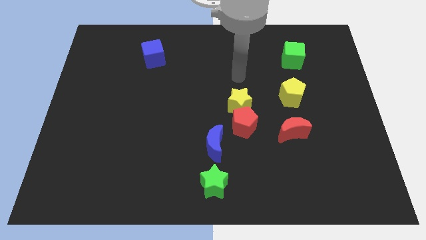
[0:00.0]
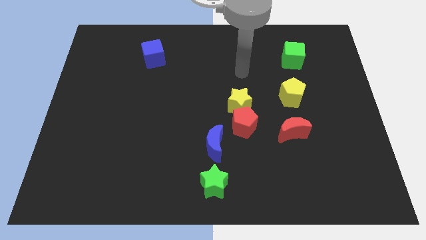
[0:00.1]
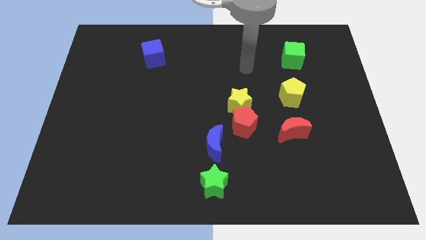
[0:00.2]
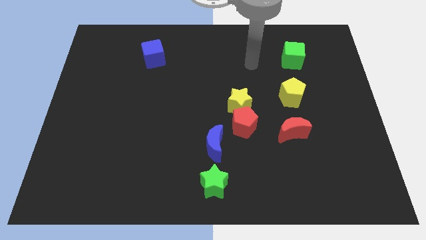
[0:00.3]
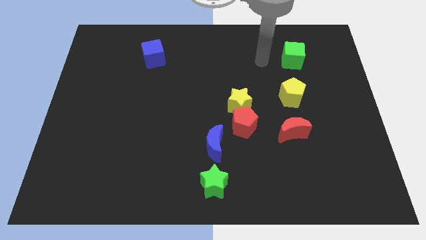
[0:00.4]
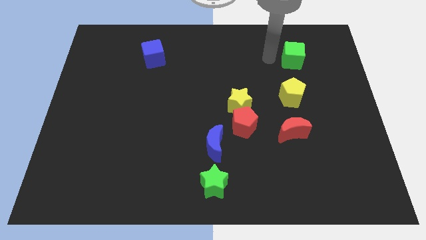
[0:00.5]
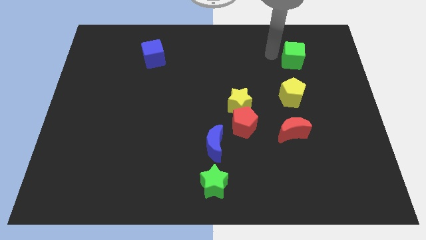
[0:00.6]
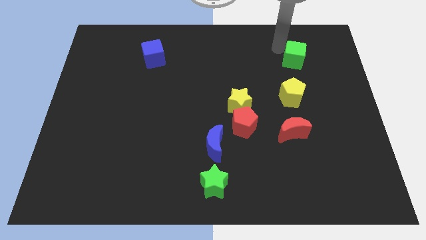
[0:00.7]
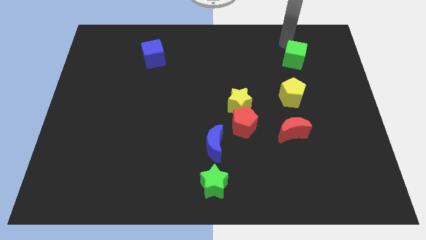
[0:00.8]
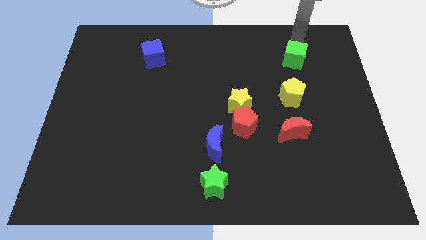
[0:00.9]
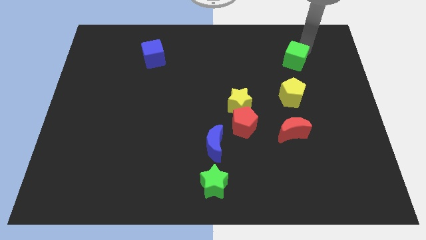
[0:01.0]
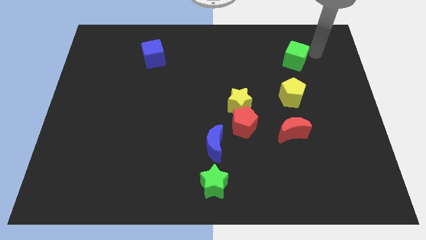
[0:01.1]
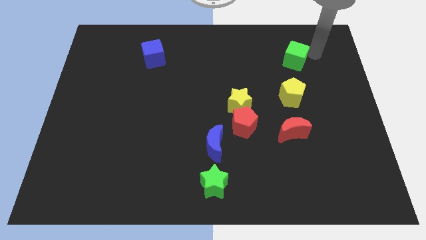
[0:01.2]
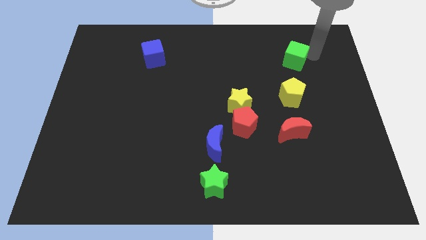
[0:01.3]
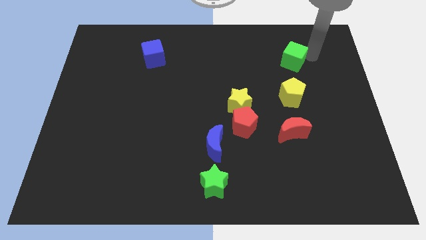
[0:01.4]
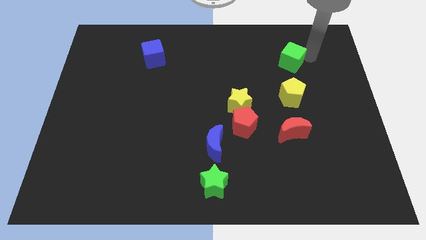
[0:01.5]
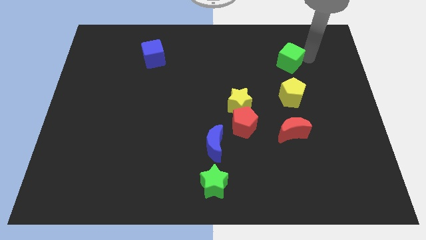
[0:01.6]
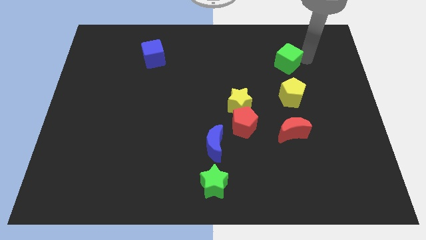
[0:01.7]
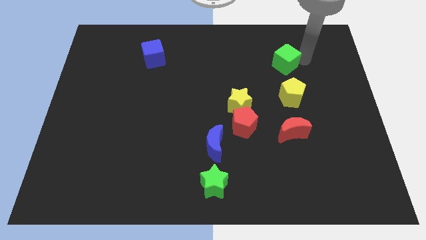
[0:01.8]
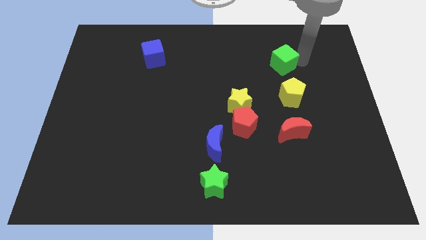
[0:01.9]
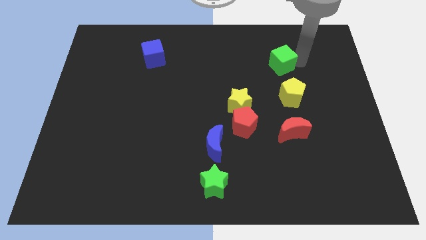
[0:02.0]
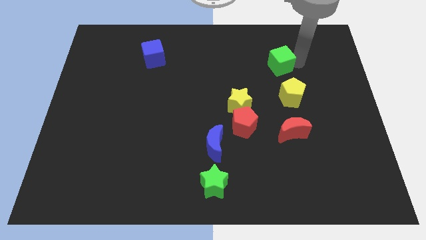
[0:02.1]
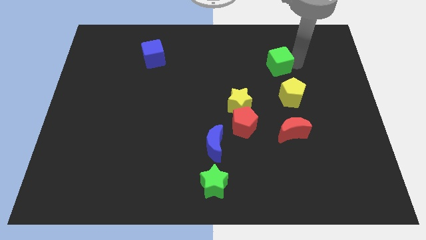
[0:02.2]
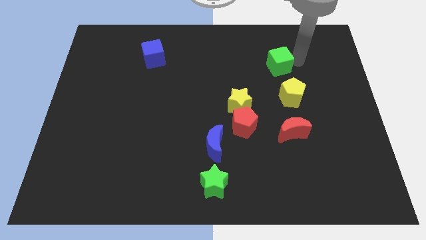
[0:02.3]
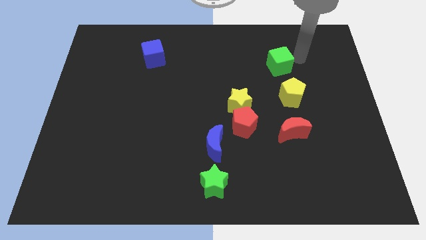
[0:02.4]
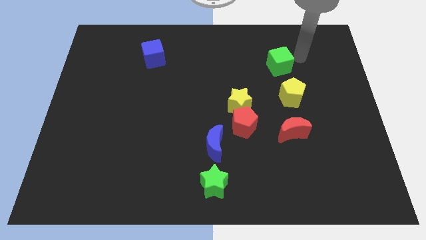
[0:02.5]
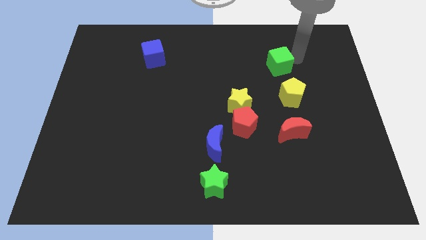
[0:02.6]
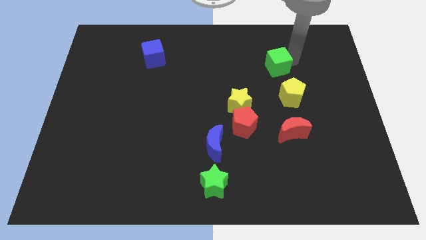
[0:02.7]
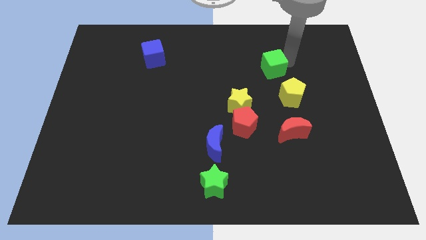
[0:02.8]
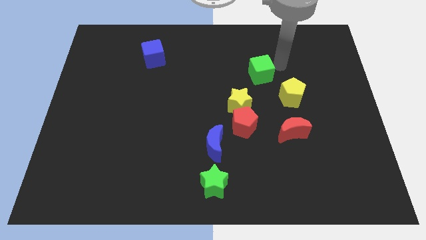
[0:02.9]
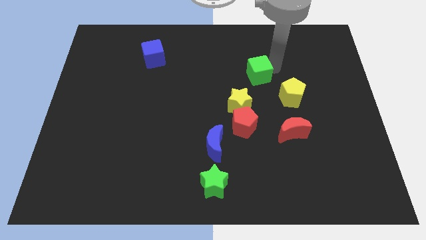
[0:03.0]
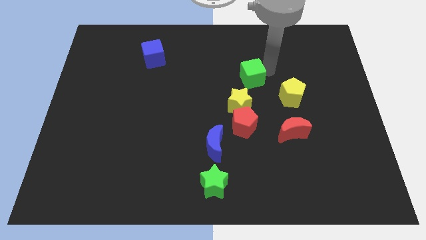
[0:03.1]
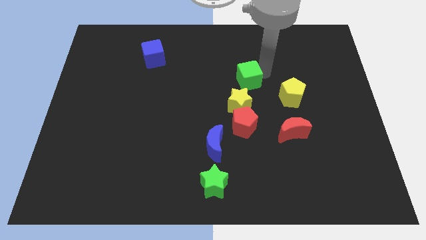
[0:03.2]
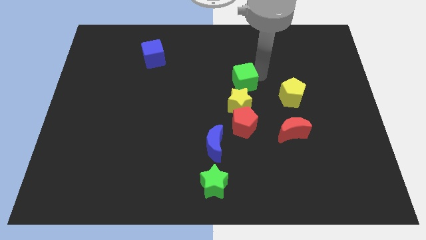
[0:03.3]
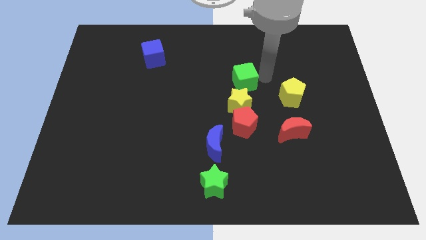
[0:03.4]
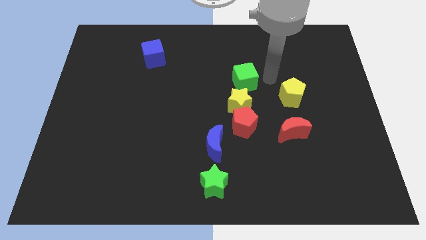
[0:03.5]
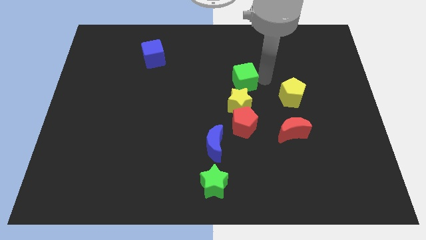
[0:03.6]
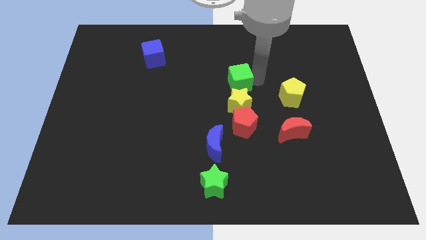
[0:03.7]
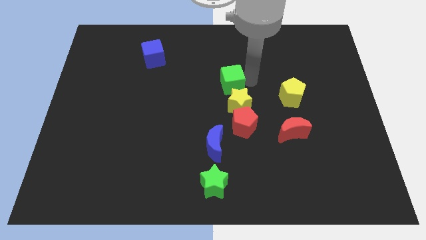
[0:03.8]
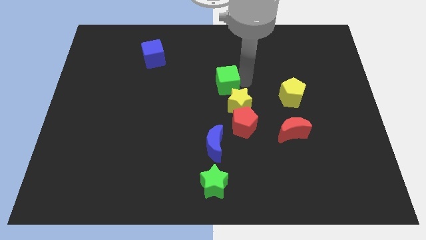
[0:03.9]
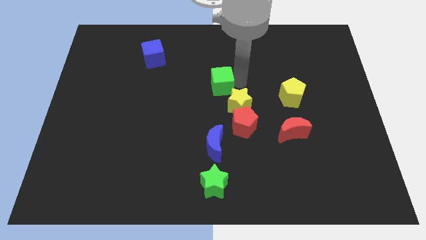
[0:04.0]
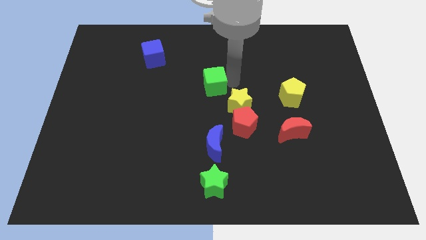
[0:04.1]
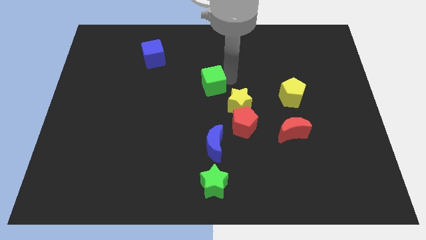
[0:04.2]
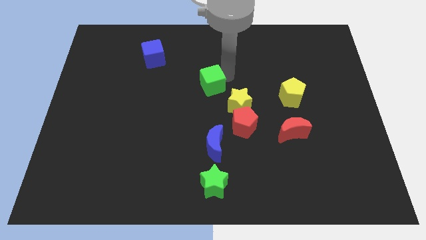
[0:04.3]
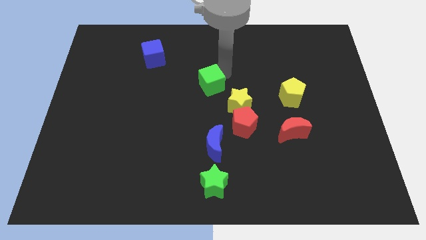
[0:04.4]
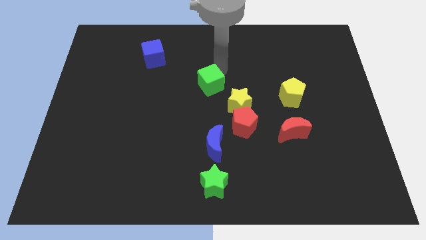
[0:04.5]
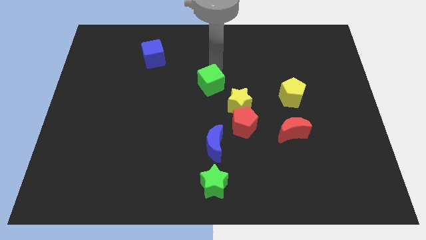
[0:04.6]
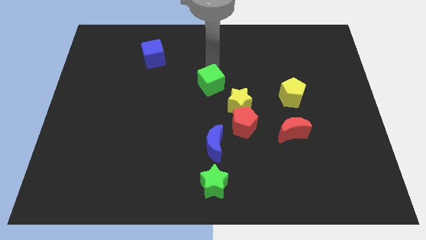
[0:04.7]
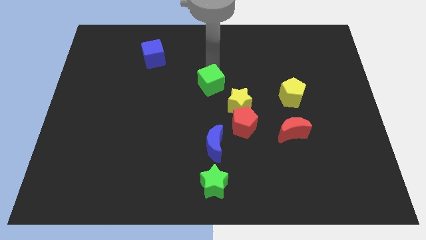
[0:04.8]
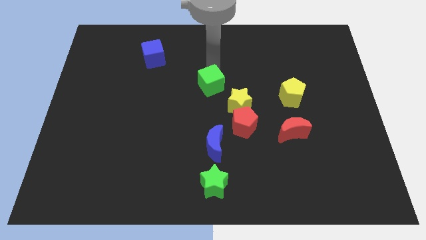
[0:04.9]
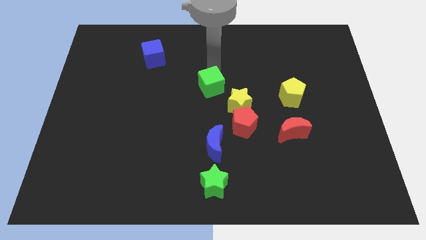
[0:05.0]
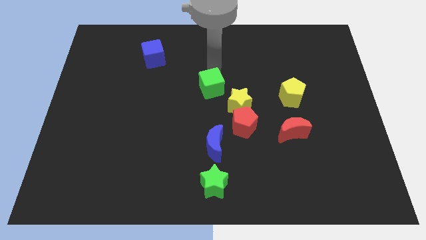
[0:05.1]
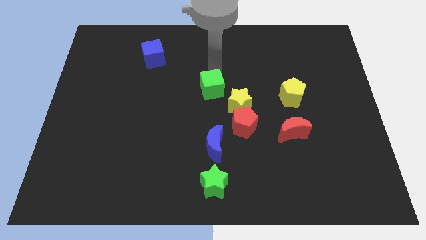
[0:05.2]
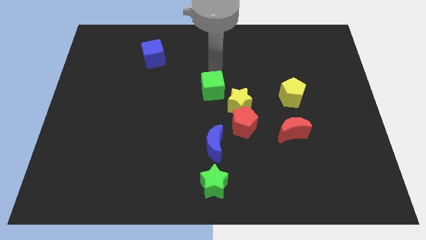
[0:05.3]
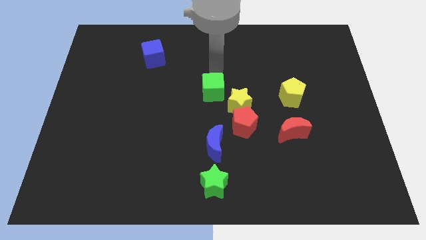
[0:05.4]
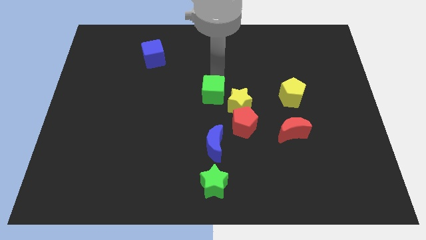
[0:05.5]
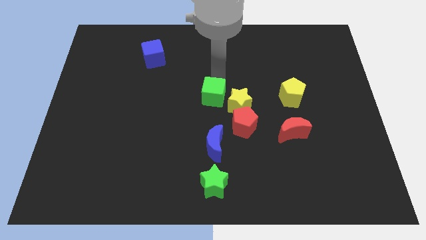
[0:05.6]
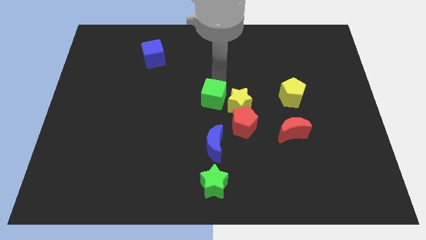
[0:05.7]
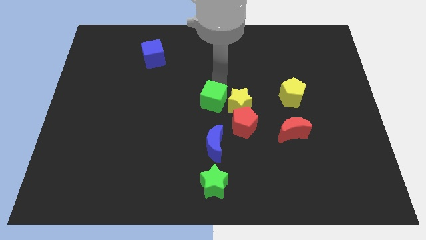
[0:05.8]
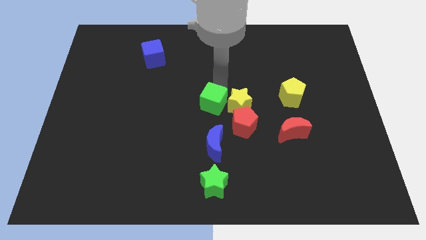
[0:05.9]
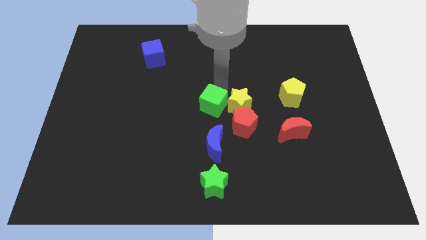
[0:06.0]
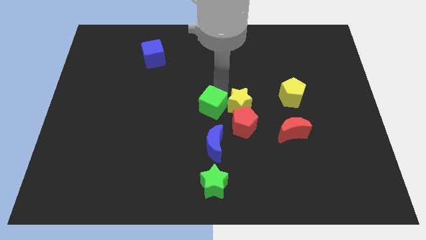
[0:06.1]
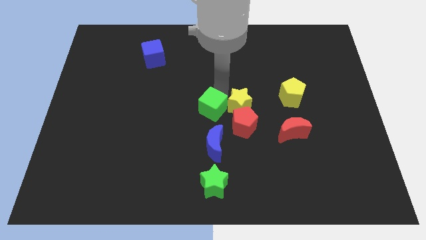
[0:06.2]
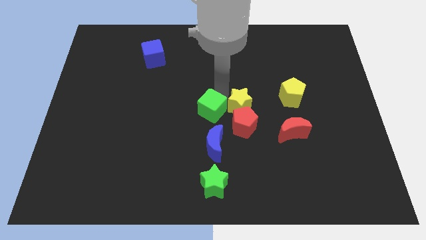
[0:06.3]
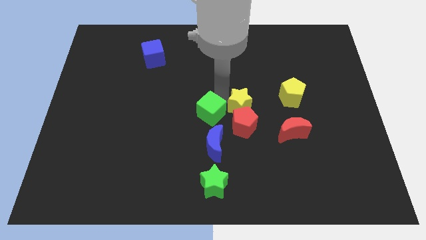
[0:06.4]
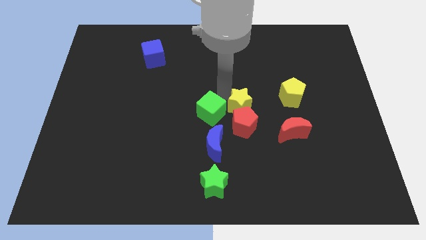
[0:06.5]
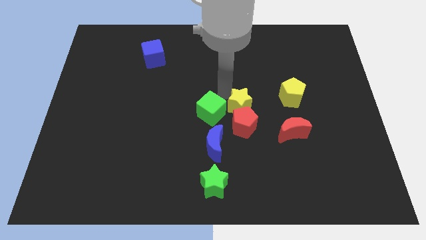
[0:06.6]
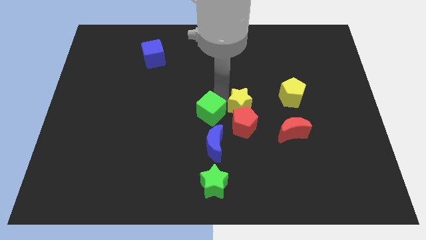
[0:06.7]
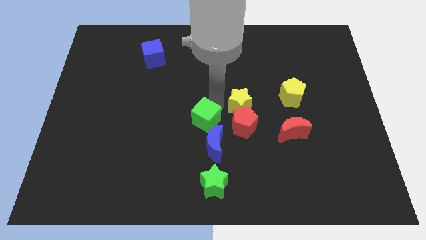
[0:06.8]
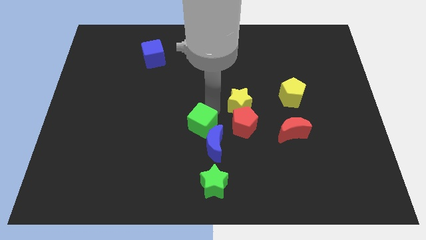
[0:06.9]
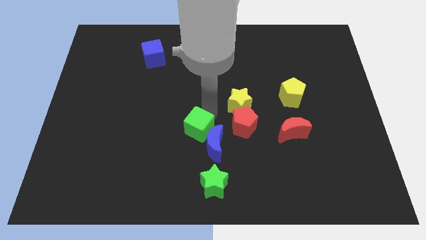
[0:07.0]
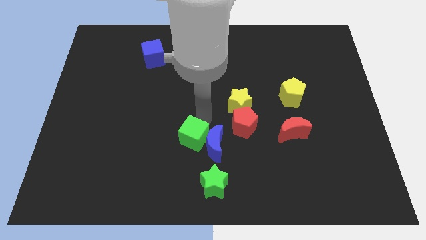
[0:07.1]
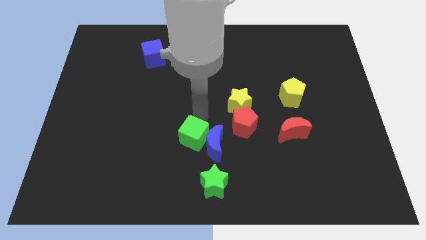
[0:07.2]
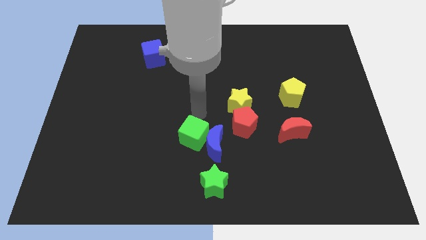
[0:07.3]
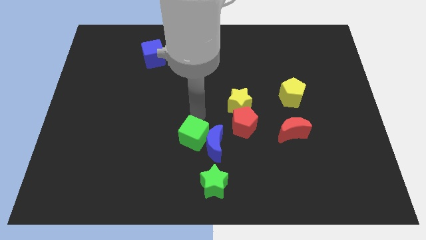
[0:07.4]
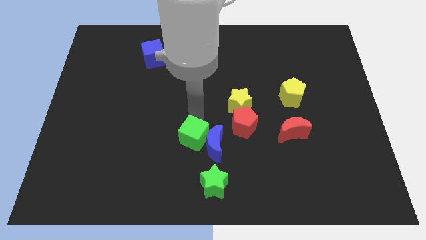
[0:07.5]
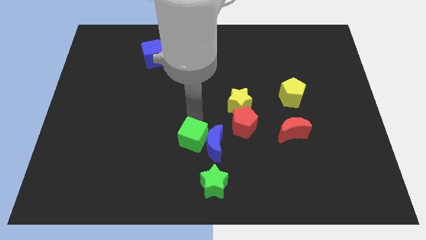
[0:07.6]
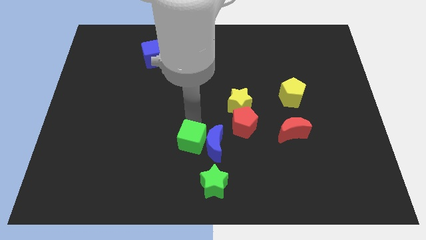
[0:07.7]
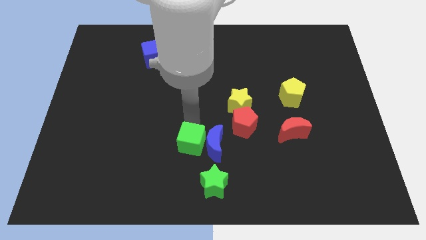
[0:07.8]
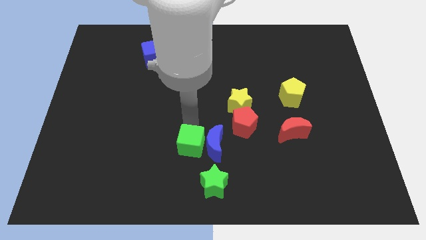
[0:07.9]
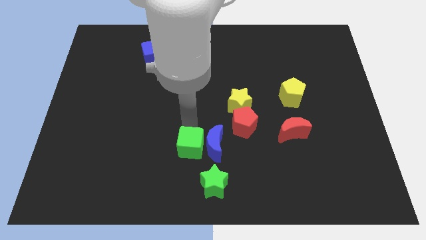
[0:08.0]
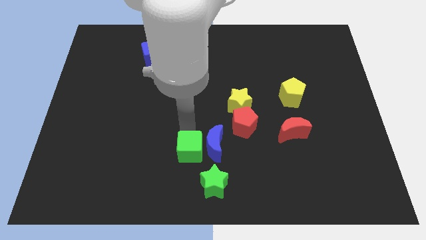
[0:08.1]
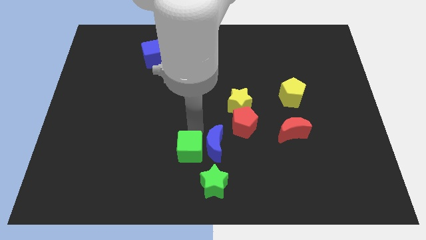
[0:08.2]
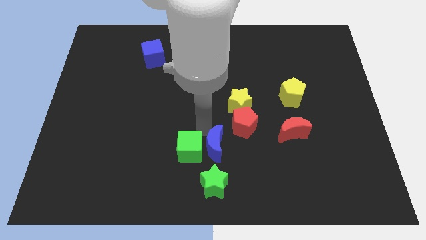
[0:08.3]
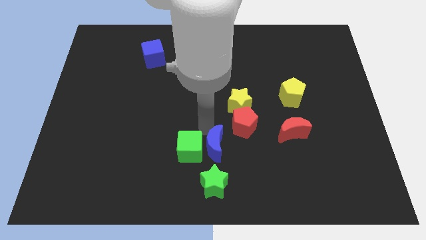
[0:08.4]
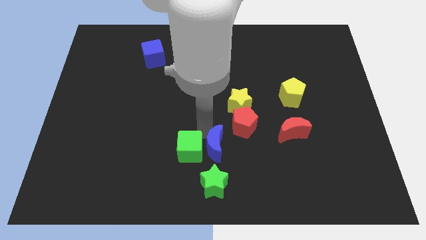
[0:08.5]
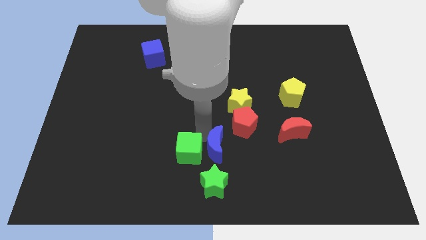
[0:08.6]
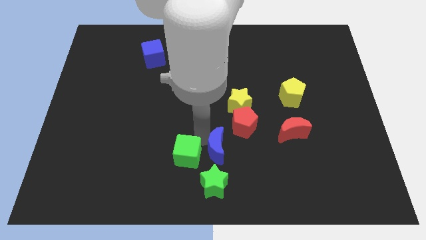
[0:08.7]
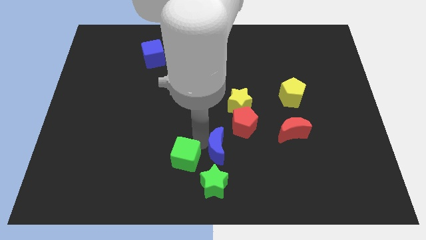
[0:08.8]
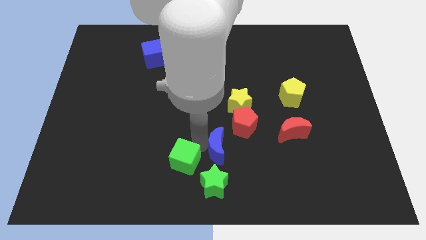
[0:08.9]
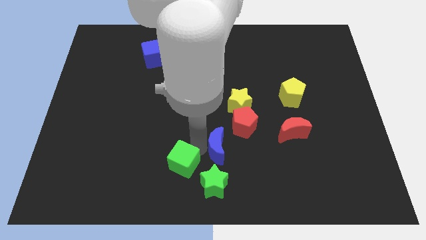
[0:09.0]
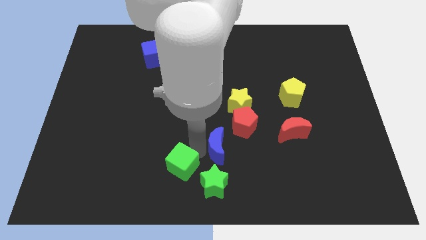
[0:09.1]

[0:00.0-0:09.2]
slide the green cube just left of the green star
